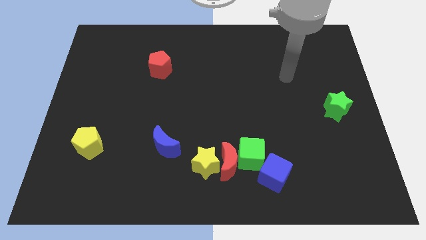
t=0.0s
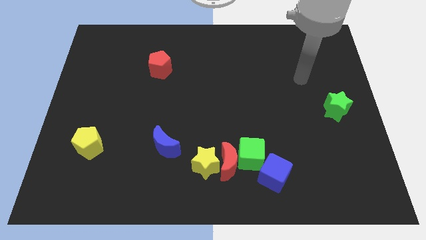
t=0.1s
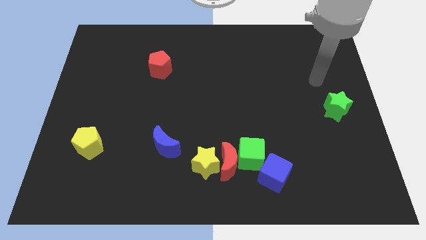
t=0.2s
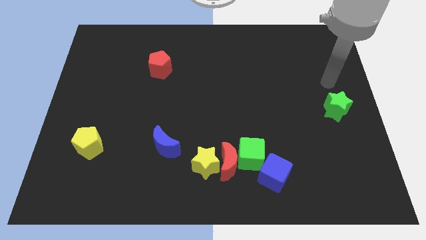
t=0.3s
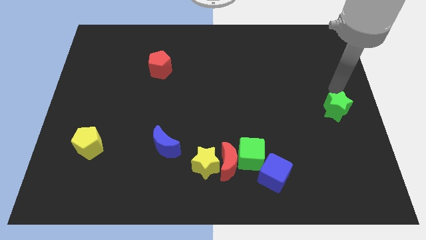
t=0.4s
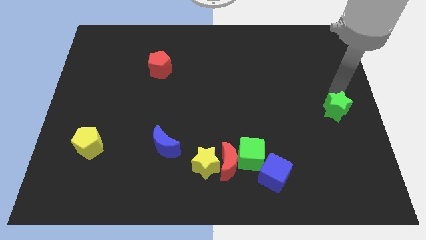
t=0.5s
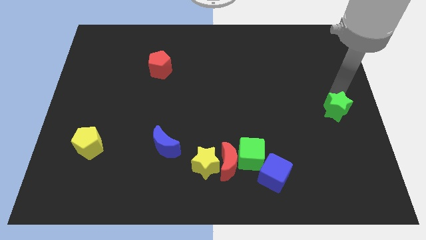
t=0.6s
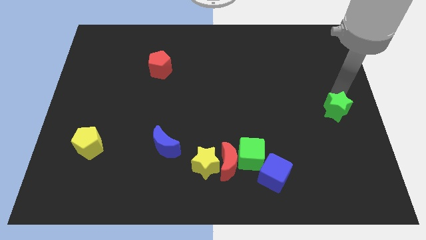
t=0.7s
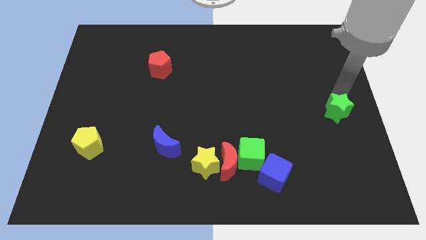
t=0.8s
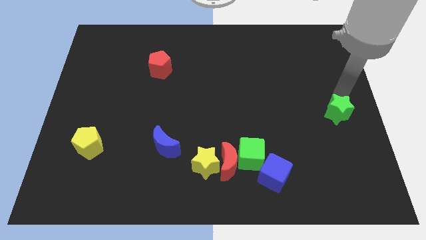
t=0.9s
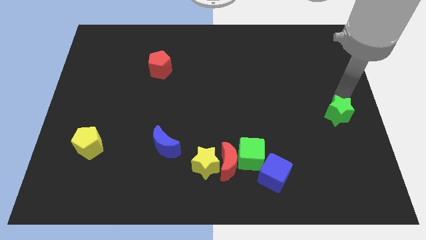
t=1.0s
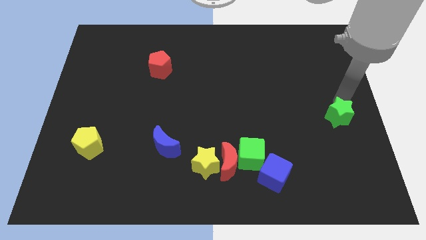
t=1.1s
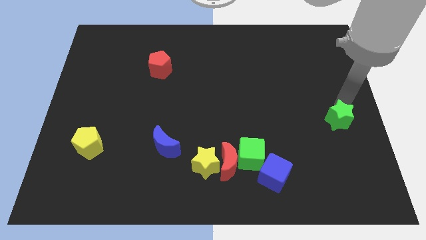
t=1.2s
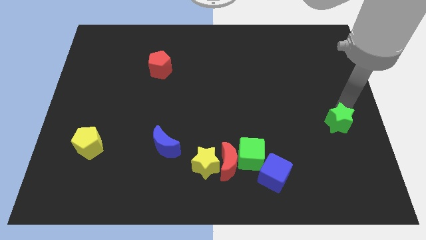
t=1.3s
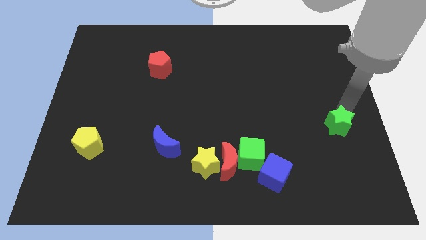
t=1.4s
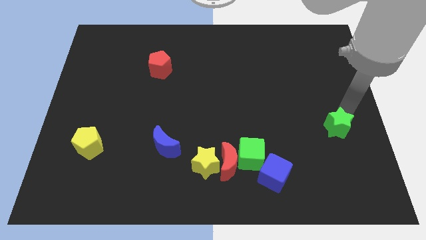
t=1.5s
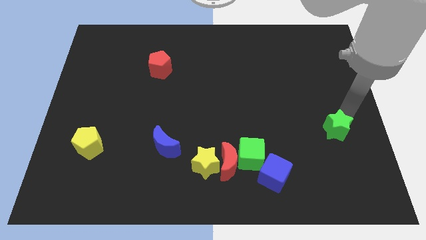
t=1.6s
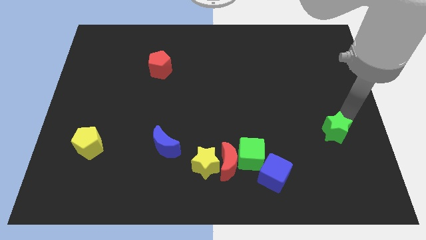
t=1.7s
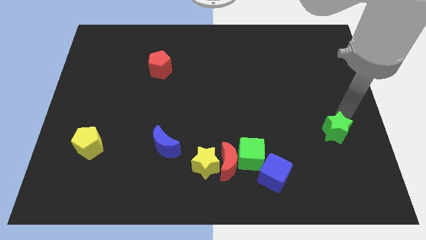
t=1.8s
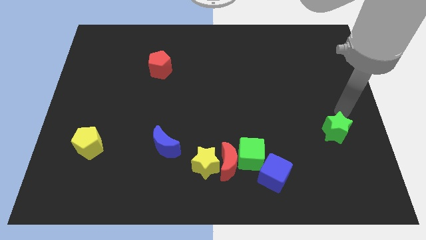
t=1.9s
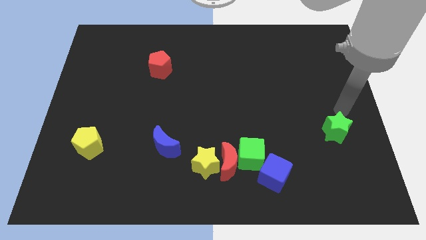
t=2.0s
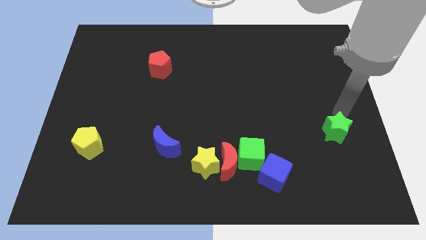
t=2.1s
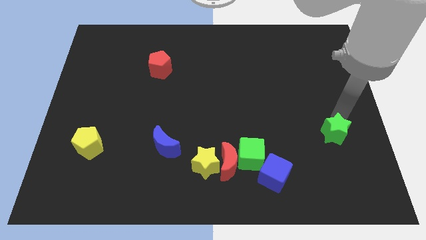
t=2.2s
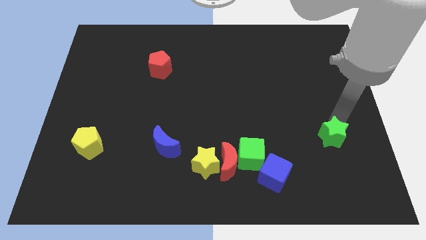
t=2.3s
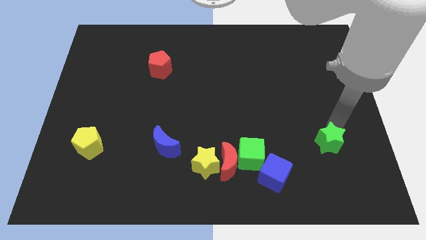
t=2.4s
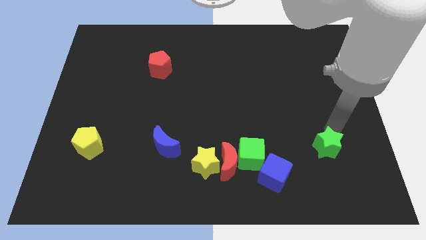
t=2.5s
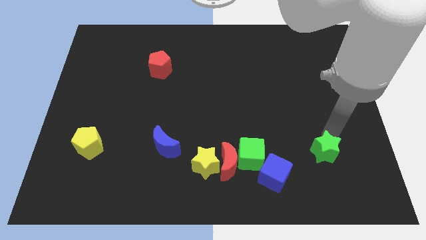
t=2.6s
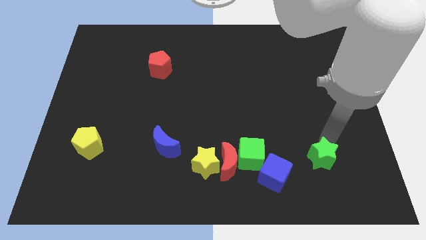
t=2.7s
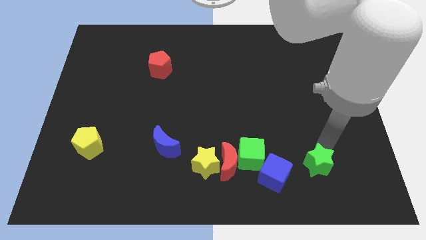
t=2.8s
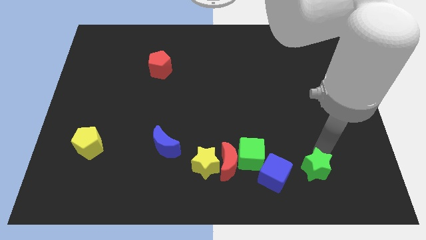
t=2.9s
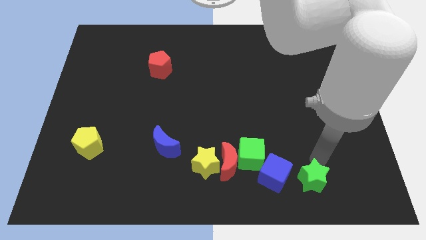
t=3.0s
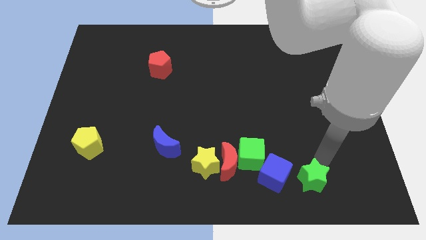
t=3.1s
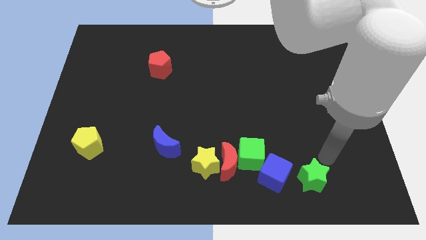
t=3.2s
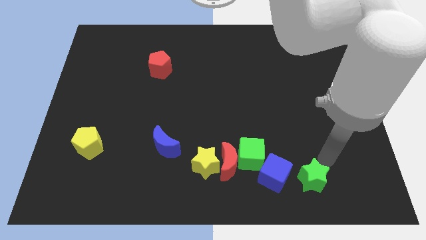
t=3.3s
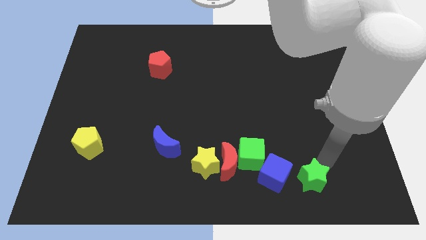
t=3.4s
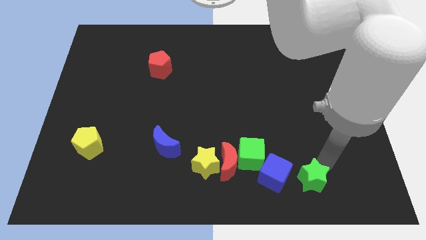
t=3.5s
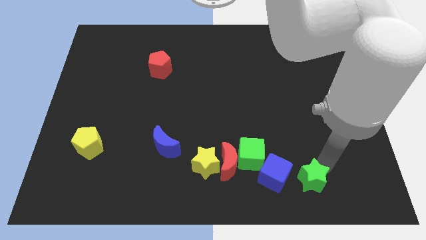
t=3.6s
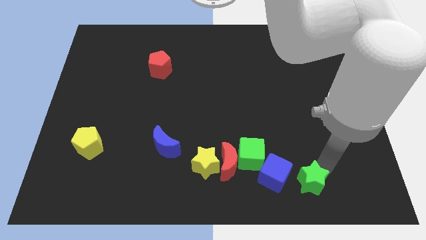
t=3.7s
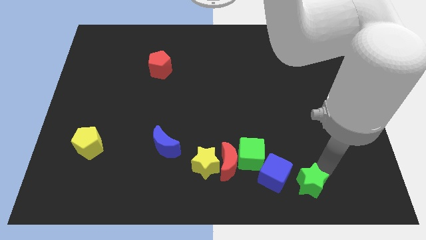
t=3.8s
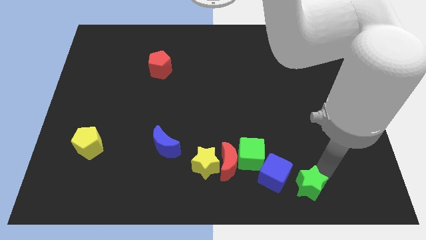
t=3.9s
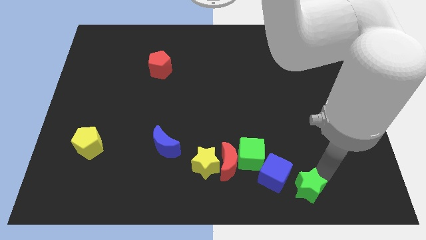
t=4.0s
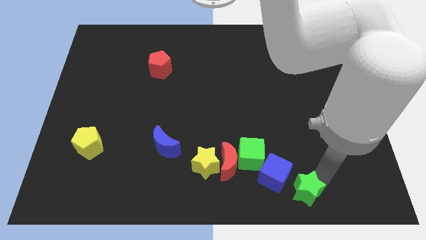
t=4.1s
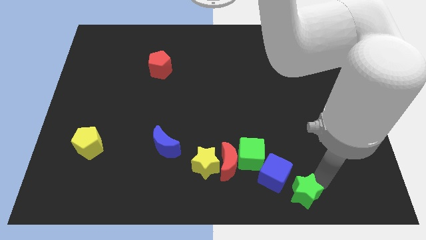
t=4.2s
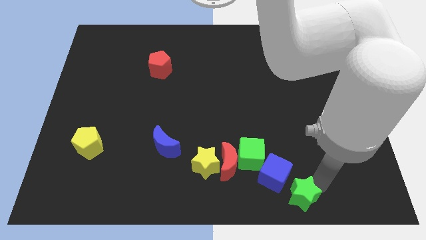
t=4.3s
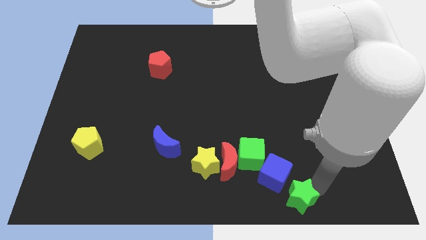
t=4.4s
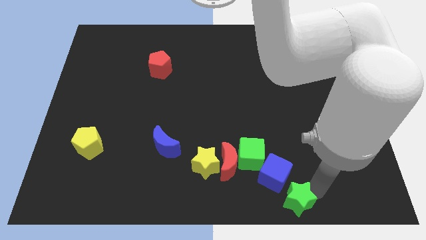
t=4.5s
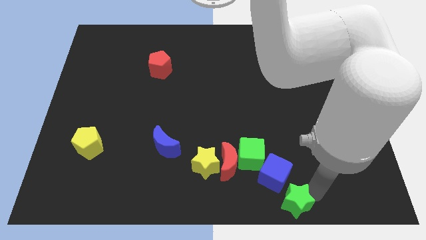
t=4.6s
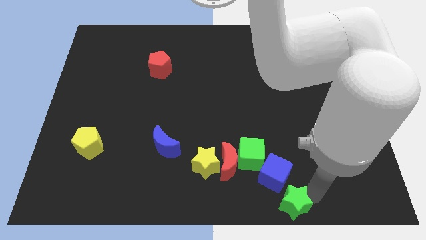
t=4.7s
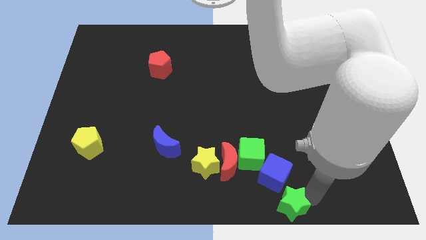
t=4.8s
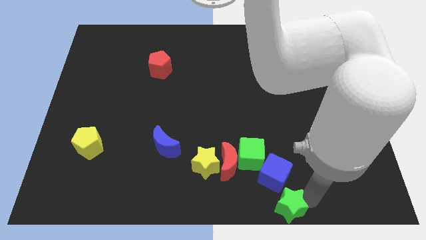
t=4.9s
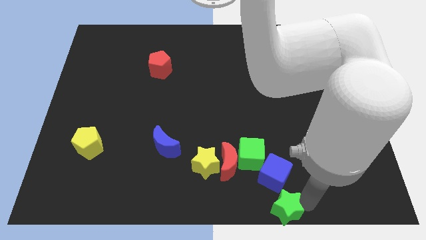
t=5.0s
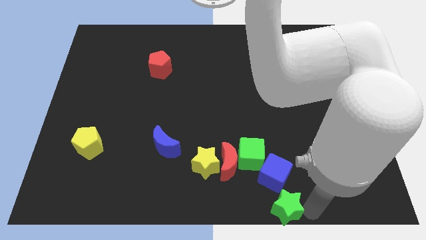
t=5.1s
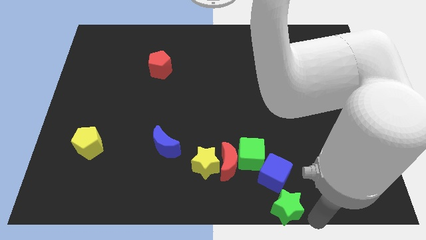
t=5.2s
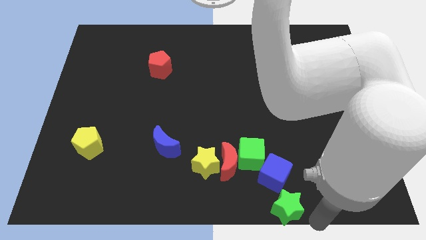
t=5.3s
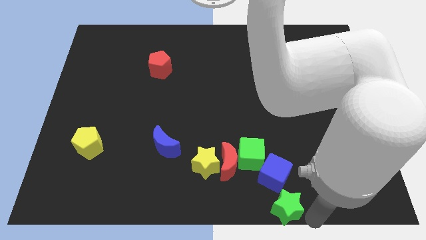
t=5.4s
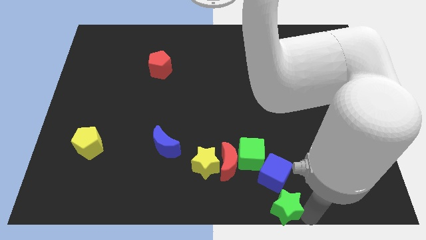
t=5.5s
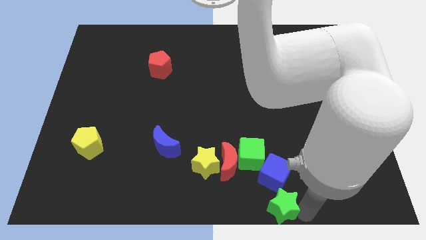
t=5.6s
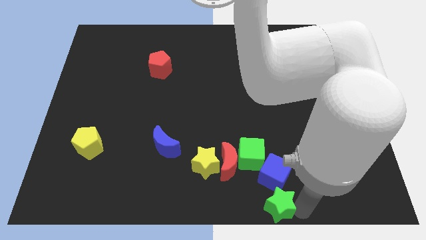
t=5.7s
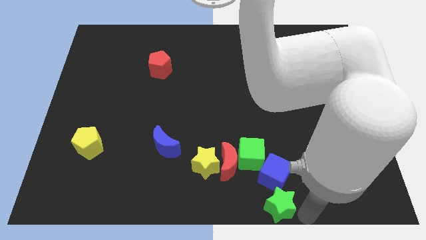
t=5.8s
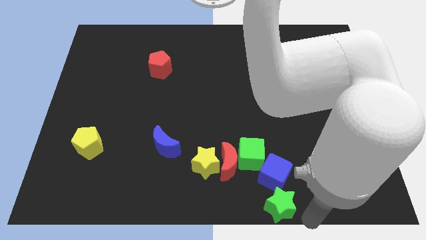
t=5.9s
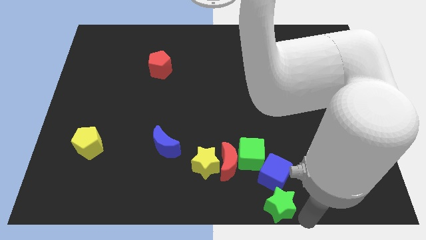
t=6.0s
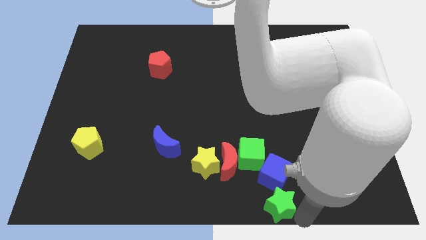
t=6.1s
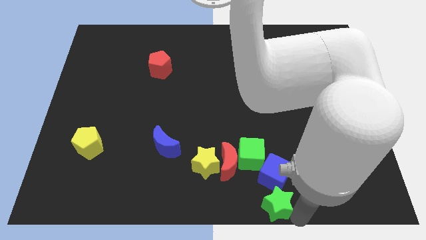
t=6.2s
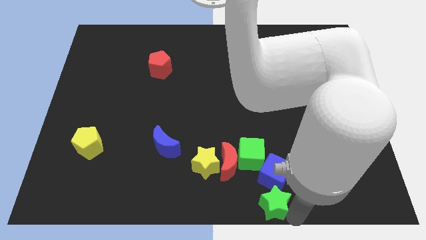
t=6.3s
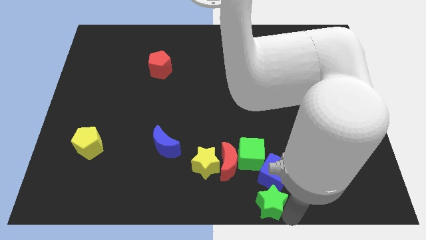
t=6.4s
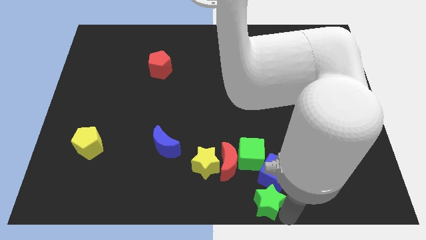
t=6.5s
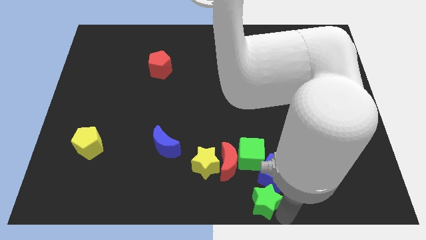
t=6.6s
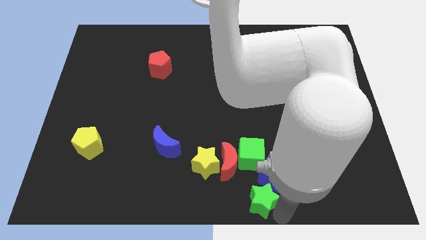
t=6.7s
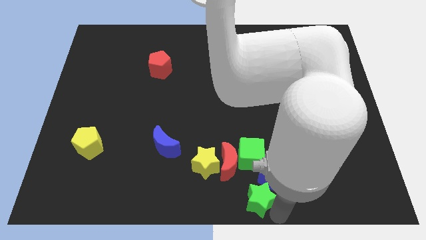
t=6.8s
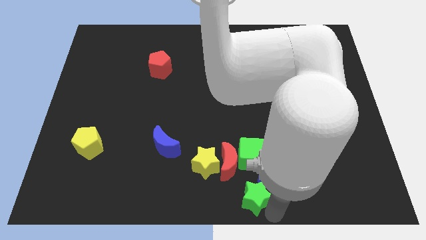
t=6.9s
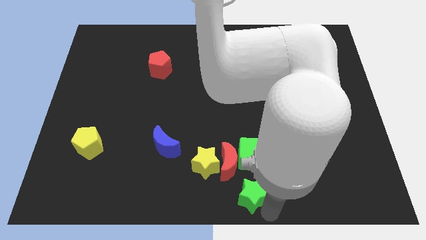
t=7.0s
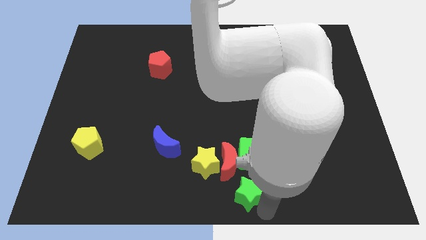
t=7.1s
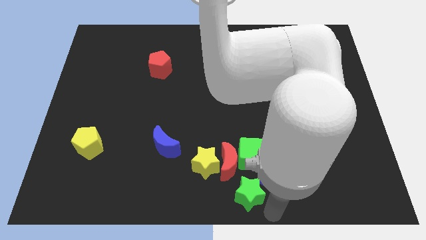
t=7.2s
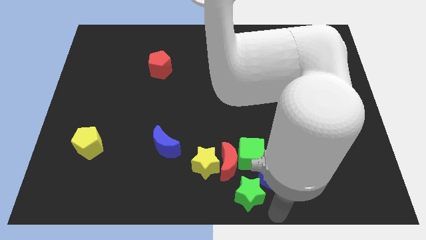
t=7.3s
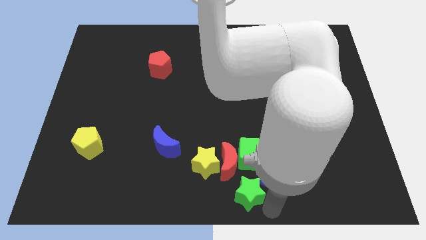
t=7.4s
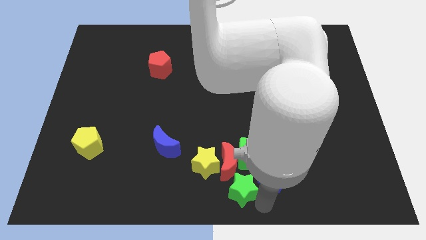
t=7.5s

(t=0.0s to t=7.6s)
slide the green star to the bottom left of the green cube

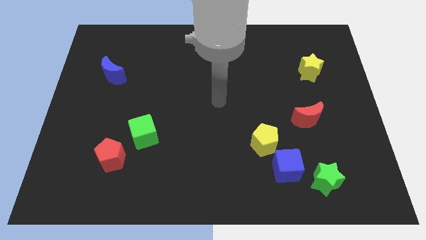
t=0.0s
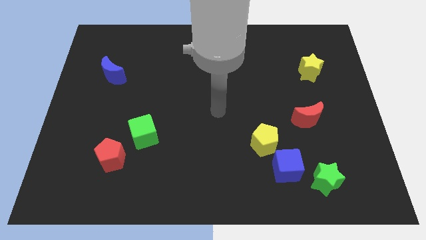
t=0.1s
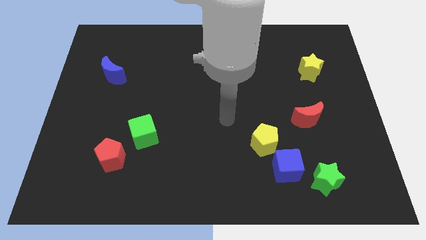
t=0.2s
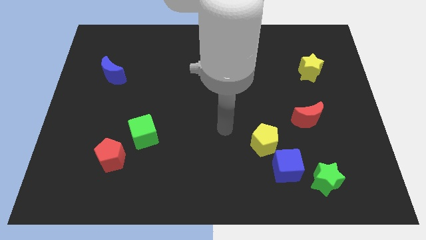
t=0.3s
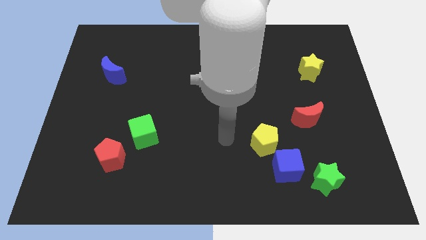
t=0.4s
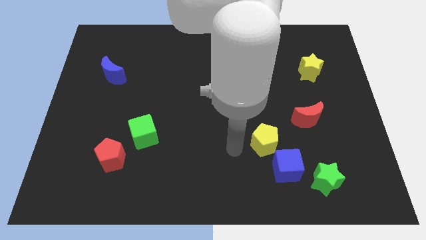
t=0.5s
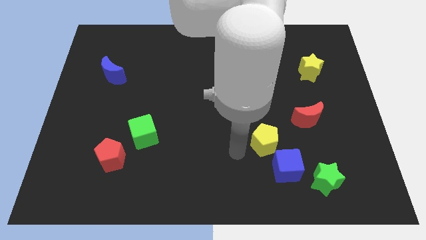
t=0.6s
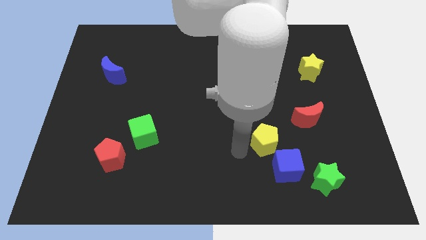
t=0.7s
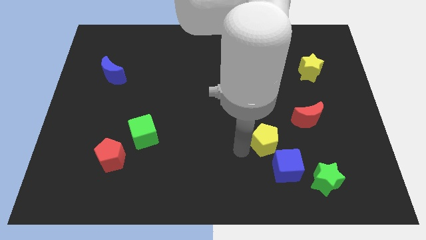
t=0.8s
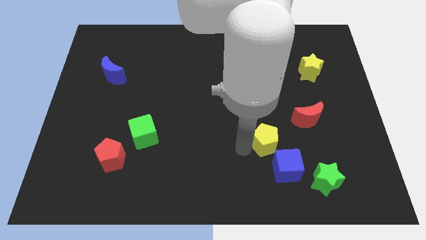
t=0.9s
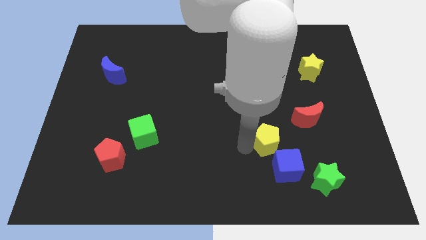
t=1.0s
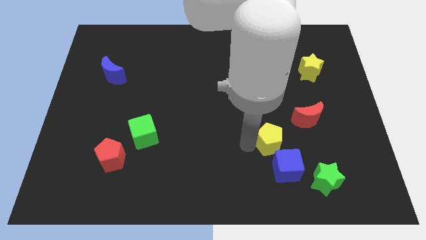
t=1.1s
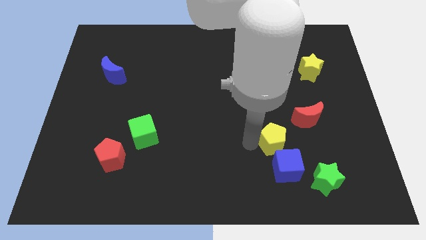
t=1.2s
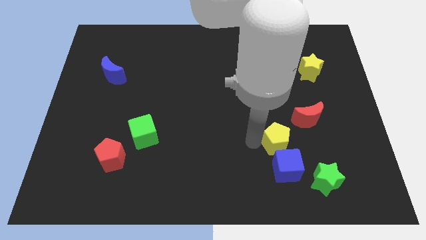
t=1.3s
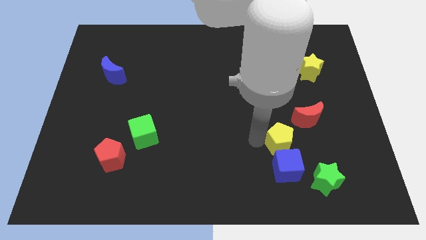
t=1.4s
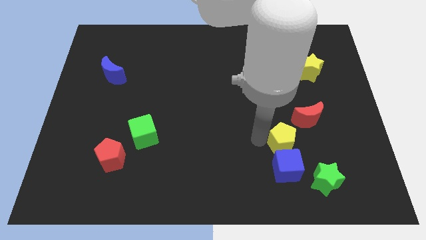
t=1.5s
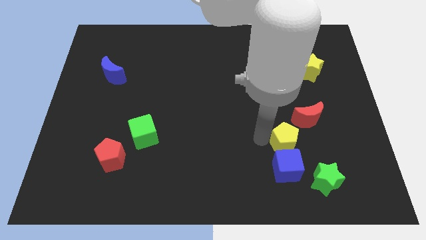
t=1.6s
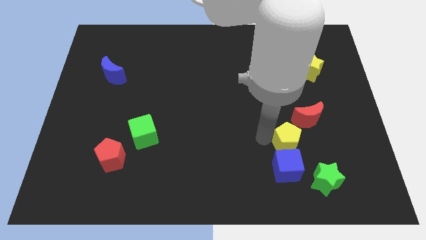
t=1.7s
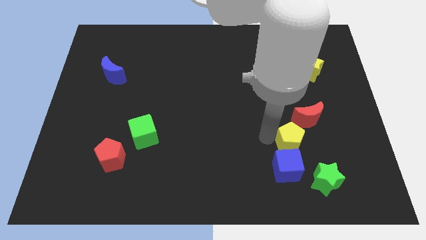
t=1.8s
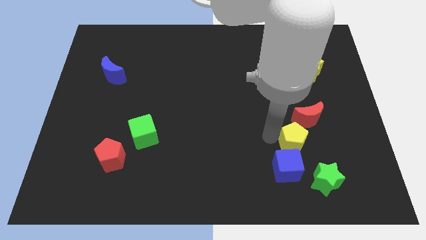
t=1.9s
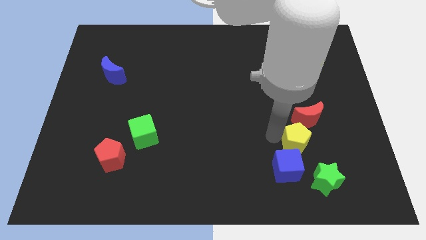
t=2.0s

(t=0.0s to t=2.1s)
put the yellow pentagon above the green star
